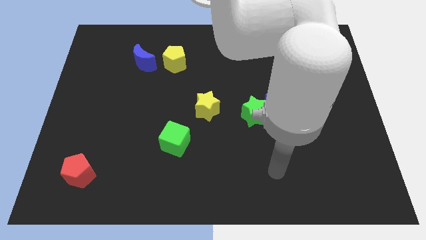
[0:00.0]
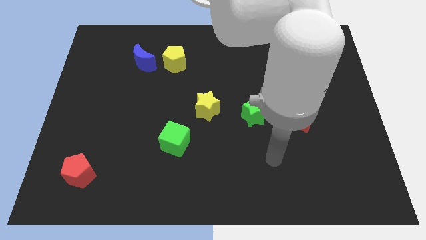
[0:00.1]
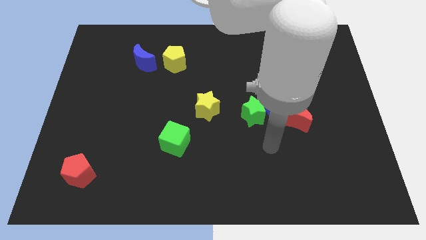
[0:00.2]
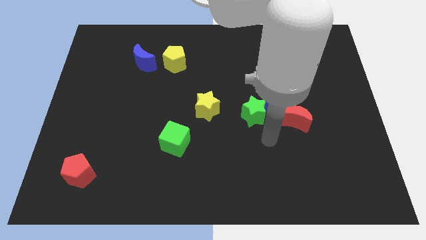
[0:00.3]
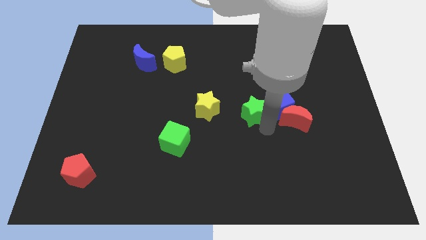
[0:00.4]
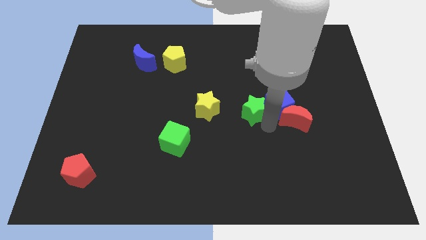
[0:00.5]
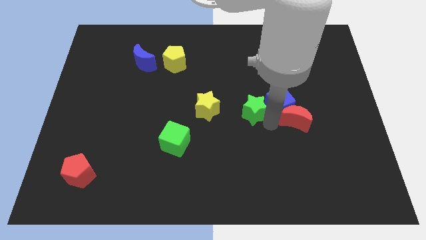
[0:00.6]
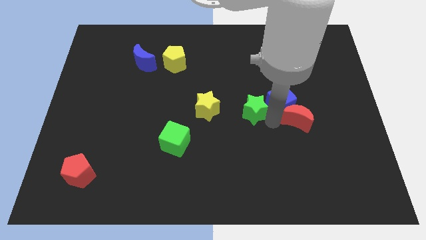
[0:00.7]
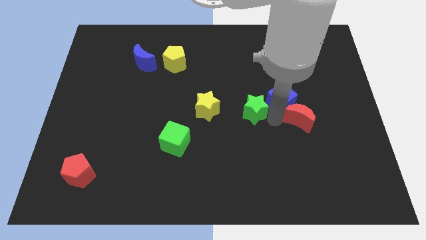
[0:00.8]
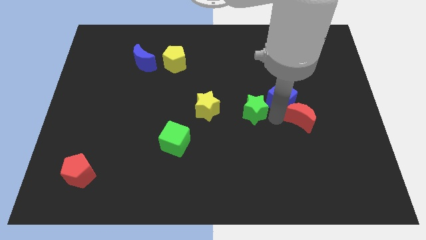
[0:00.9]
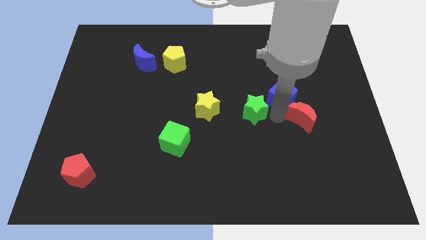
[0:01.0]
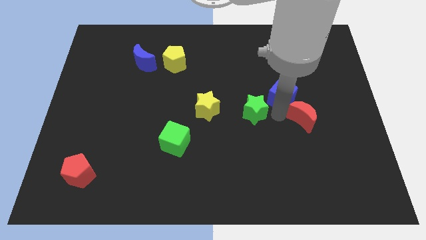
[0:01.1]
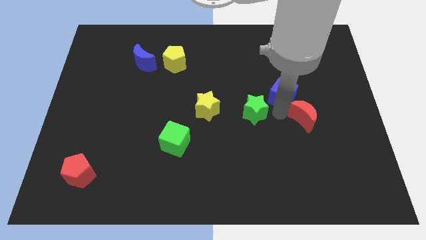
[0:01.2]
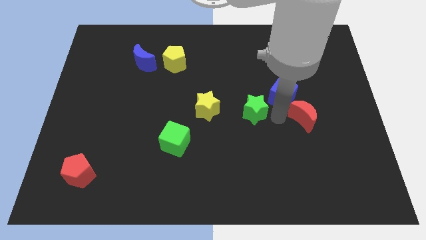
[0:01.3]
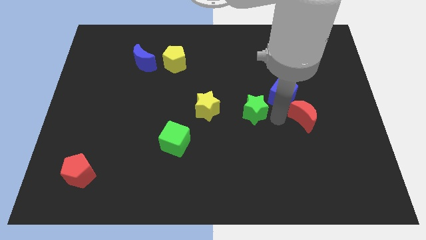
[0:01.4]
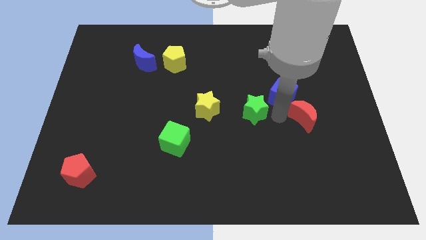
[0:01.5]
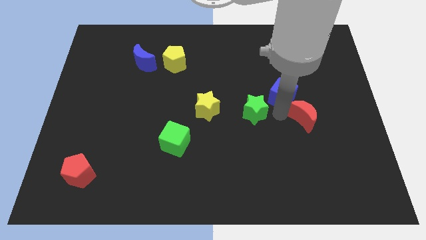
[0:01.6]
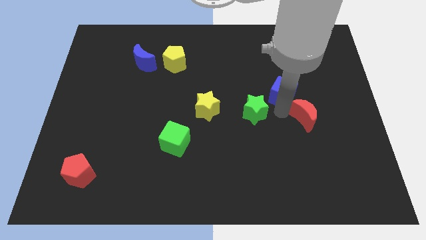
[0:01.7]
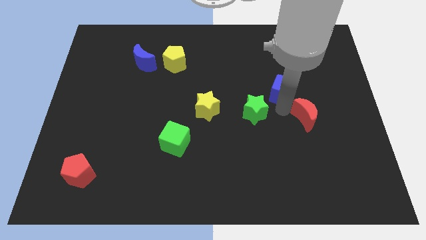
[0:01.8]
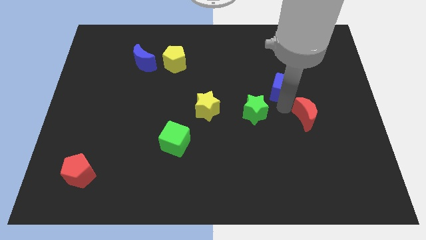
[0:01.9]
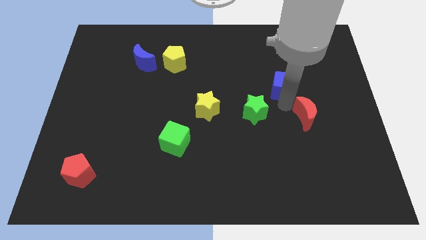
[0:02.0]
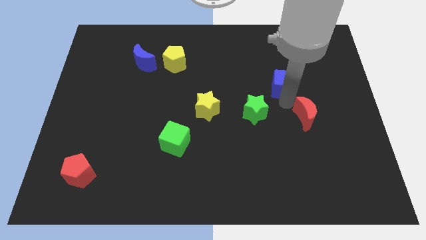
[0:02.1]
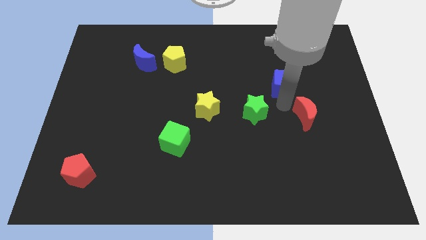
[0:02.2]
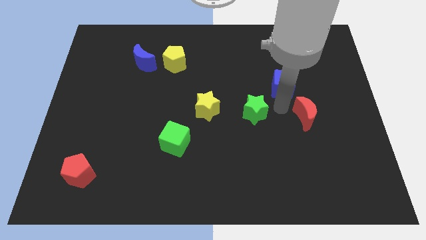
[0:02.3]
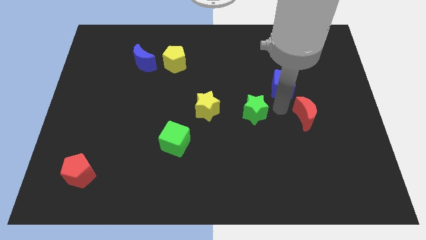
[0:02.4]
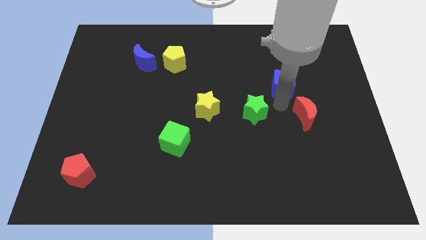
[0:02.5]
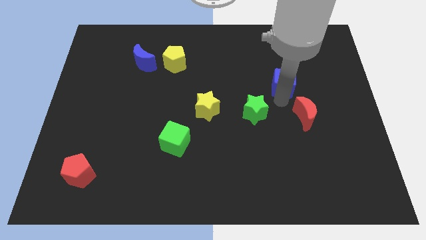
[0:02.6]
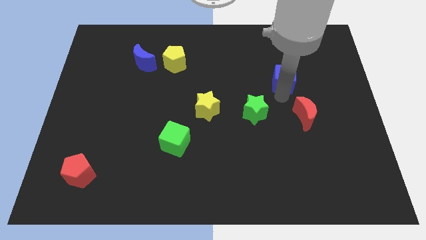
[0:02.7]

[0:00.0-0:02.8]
pull the blue cube apart from the red moon and green star

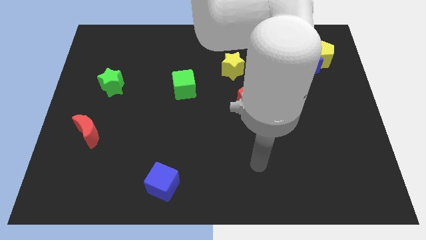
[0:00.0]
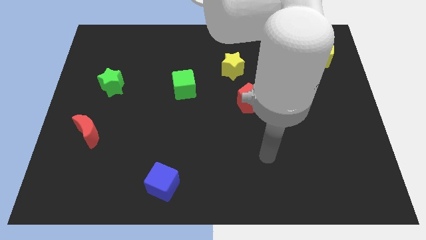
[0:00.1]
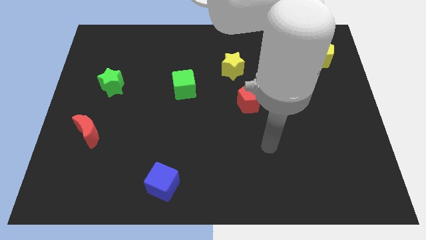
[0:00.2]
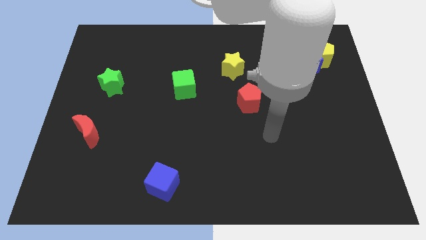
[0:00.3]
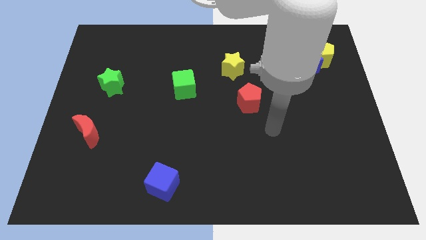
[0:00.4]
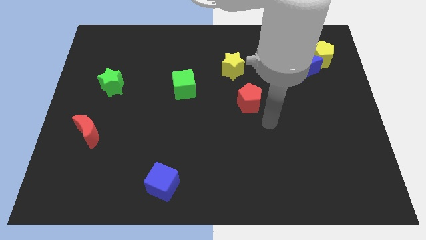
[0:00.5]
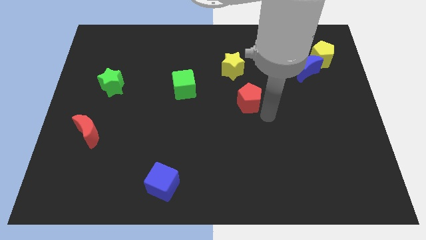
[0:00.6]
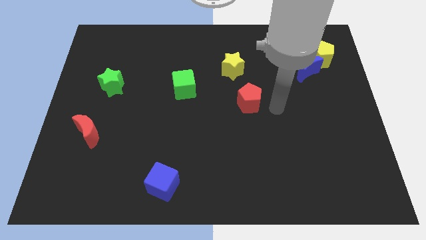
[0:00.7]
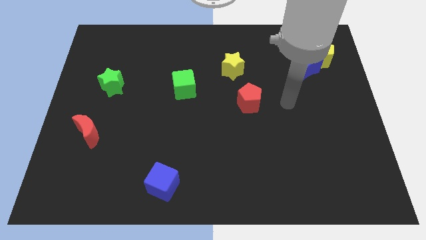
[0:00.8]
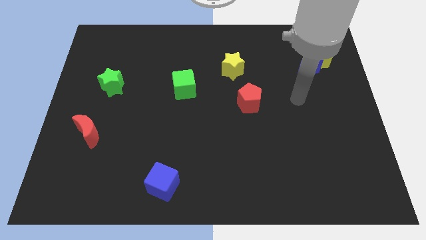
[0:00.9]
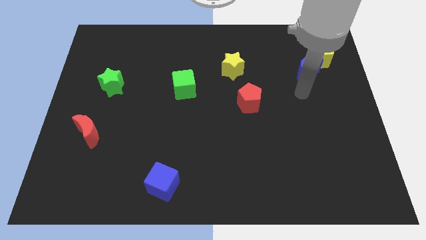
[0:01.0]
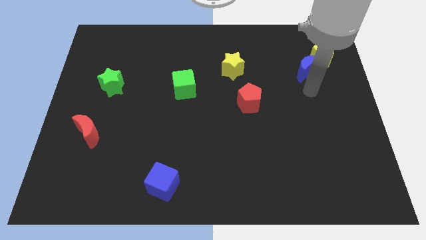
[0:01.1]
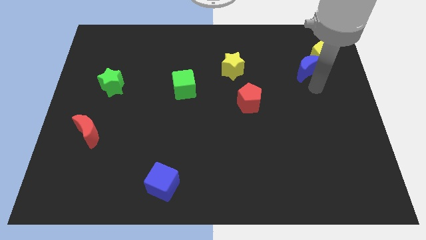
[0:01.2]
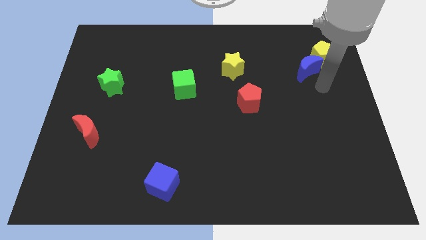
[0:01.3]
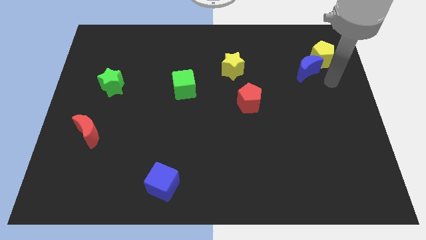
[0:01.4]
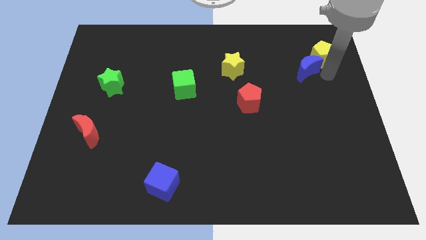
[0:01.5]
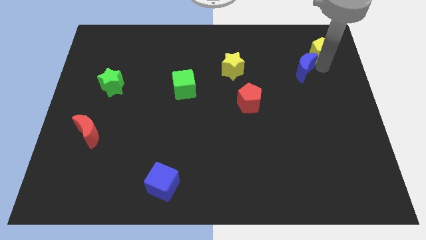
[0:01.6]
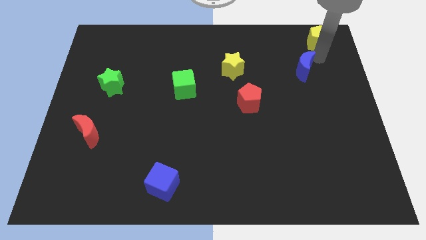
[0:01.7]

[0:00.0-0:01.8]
move the blue moon away from the yellow pentagon

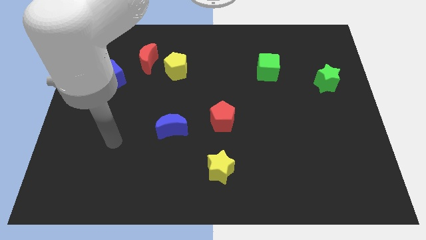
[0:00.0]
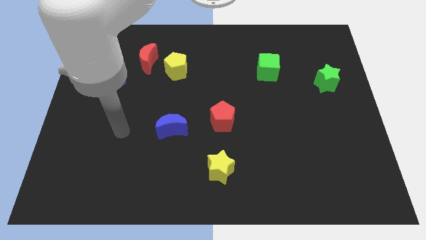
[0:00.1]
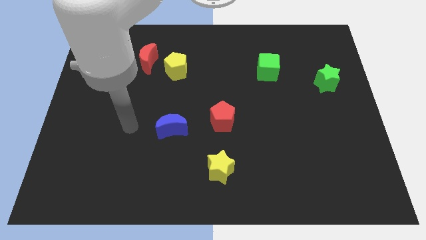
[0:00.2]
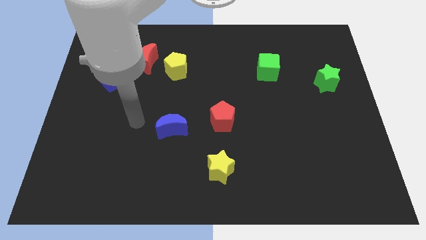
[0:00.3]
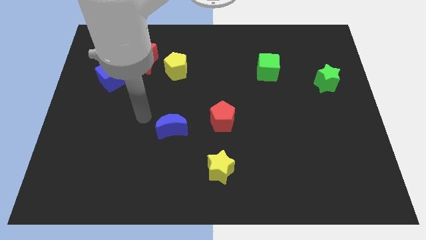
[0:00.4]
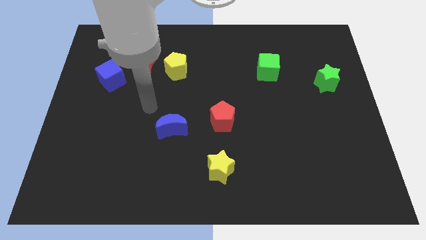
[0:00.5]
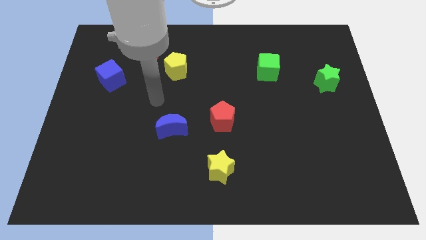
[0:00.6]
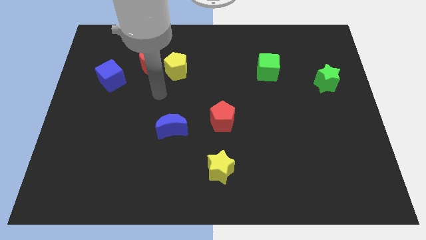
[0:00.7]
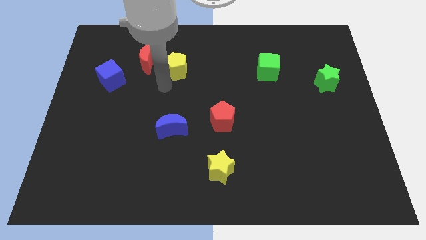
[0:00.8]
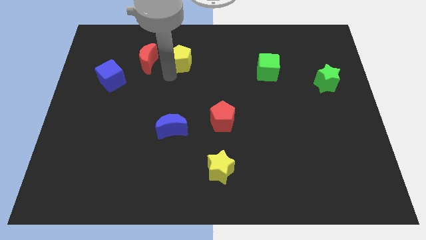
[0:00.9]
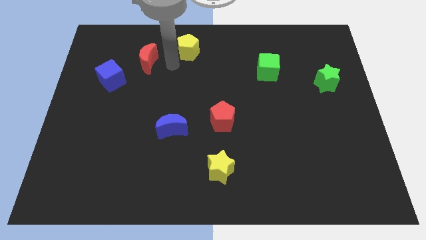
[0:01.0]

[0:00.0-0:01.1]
pull the red moon apart from the yellow pentagon

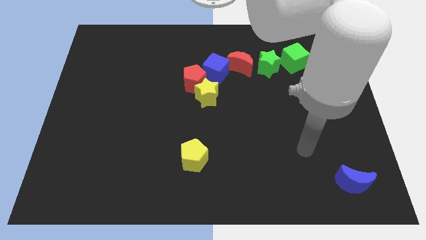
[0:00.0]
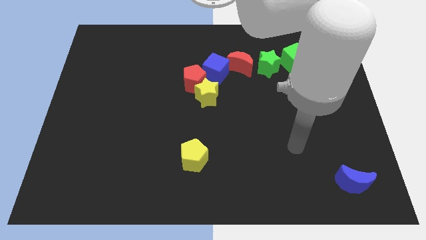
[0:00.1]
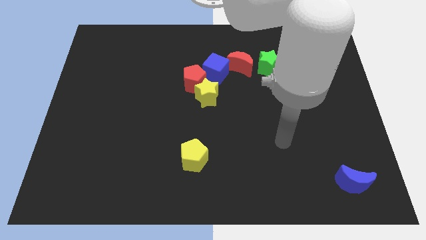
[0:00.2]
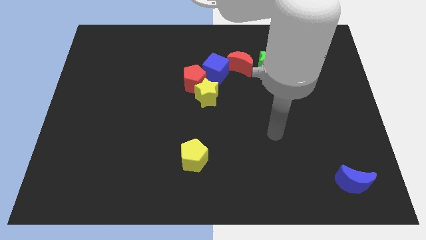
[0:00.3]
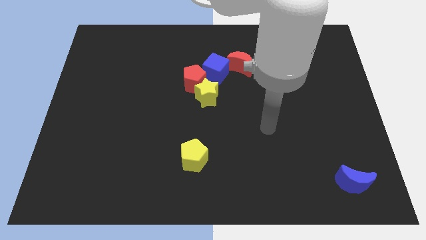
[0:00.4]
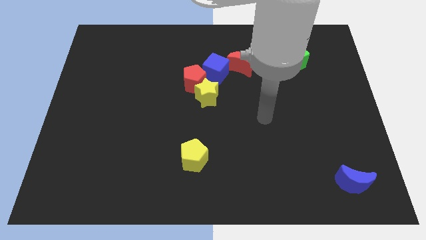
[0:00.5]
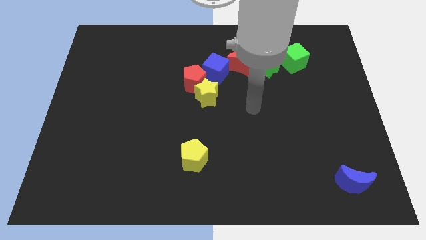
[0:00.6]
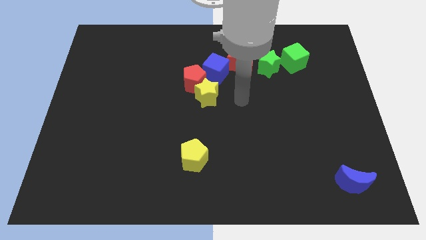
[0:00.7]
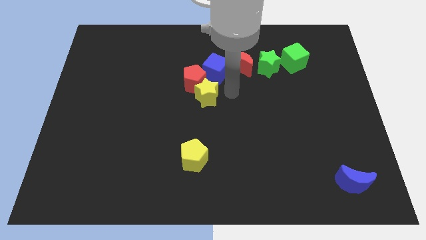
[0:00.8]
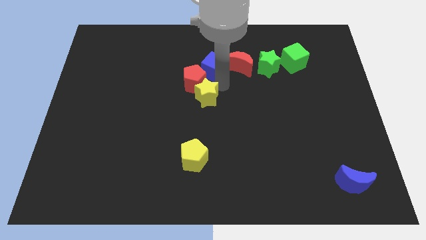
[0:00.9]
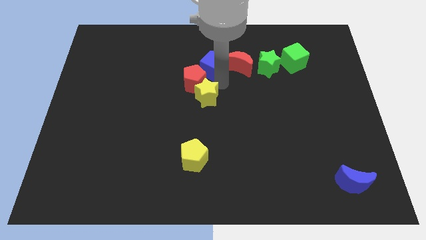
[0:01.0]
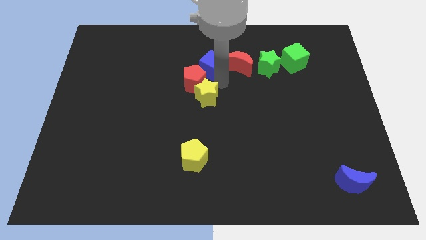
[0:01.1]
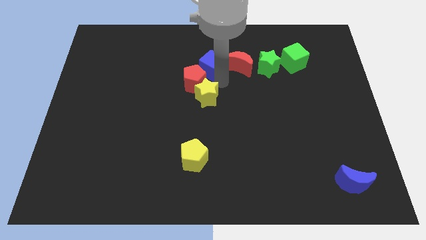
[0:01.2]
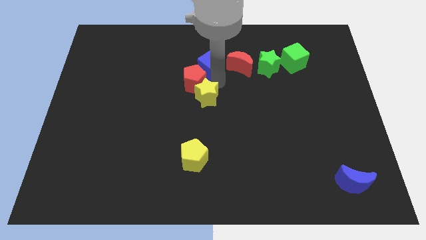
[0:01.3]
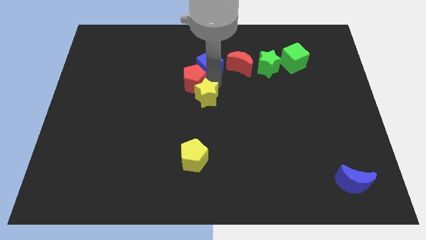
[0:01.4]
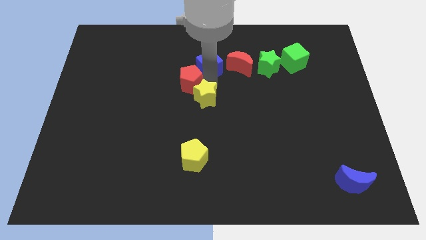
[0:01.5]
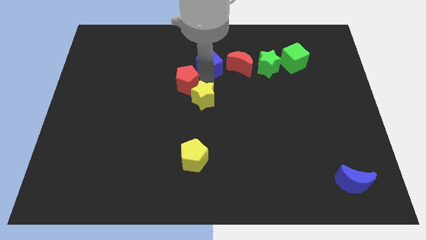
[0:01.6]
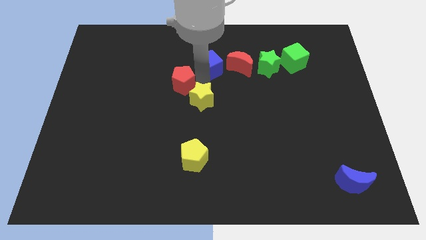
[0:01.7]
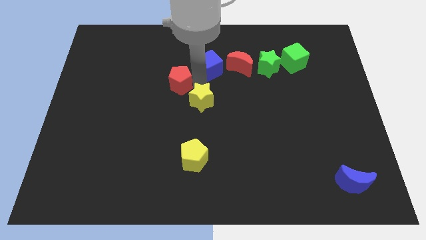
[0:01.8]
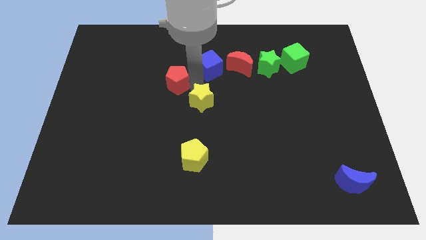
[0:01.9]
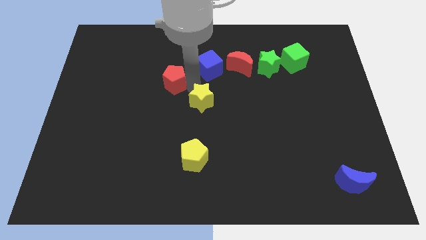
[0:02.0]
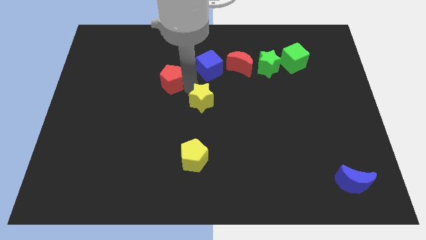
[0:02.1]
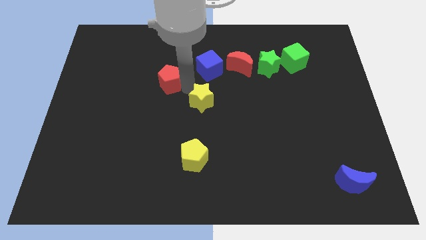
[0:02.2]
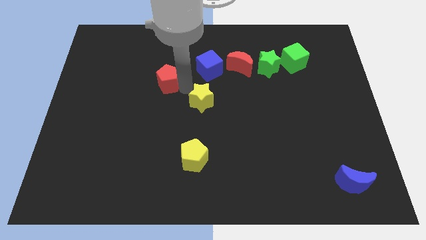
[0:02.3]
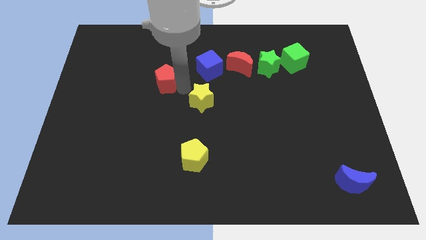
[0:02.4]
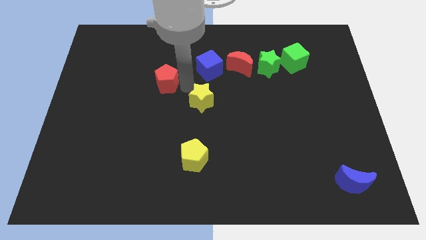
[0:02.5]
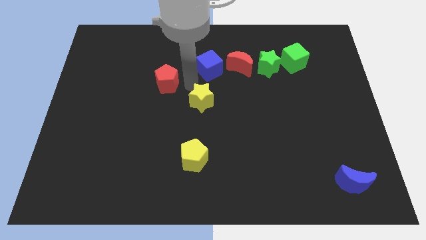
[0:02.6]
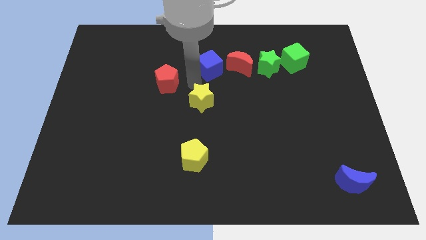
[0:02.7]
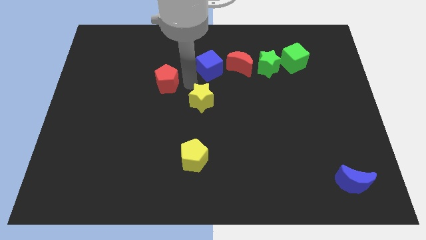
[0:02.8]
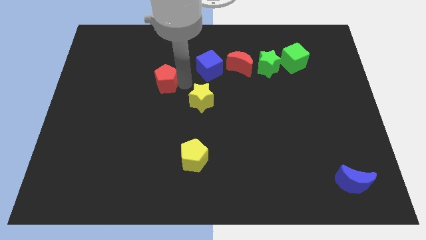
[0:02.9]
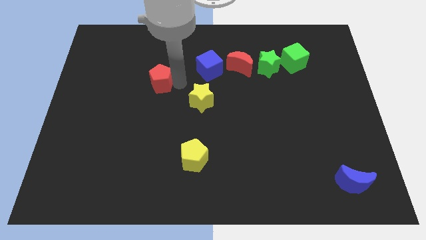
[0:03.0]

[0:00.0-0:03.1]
separate the red pentagon from the yellow star and blue cube

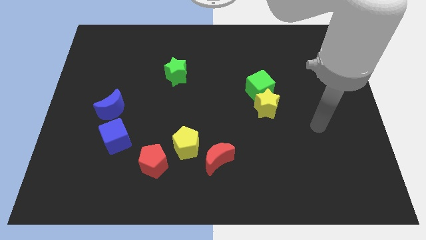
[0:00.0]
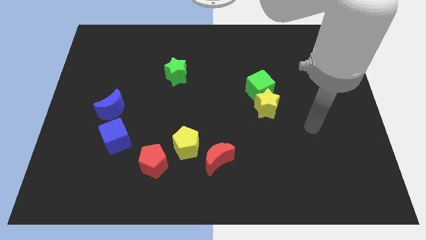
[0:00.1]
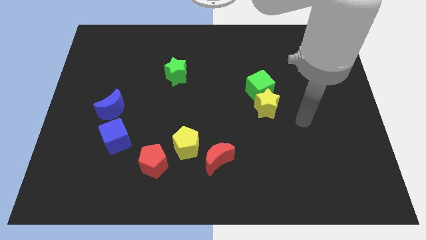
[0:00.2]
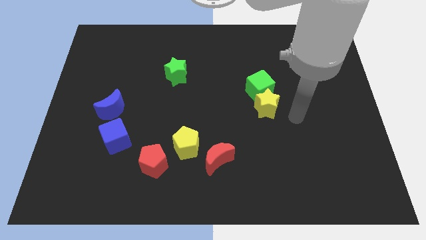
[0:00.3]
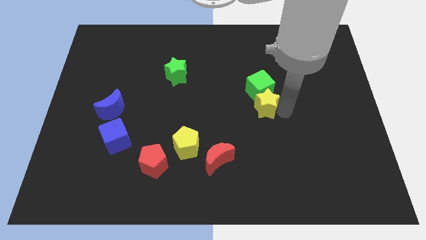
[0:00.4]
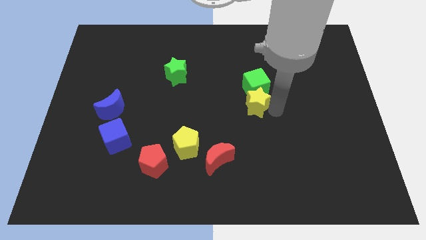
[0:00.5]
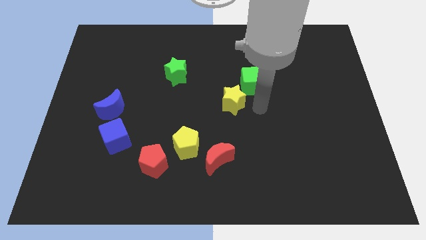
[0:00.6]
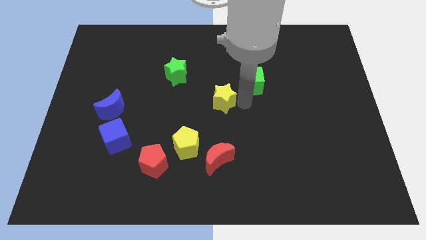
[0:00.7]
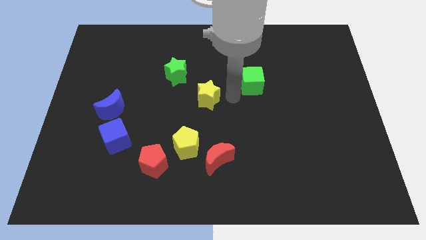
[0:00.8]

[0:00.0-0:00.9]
pull the green cube apart from the yellow star
